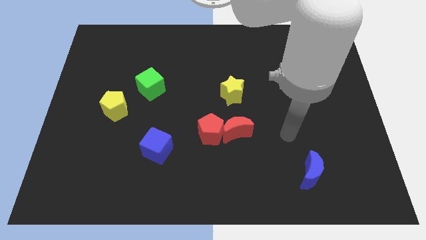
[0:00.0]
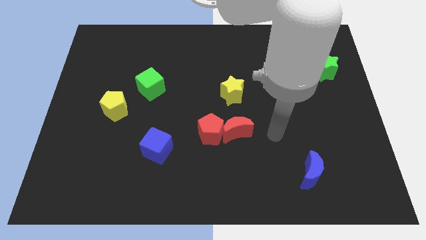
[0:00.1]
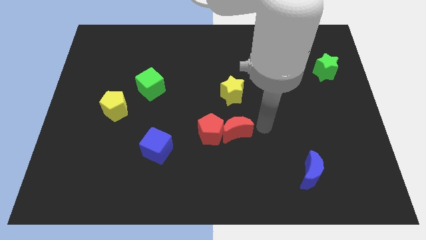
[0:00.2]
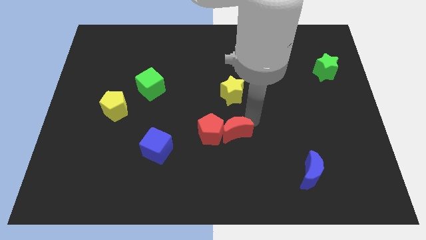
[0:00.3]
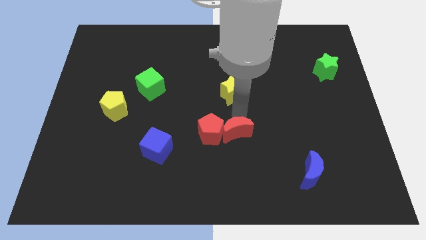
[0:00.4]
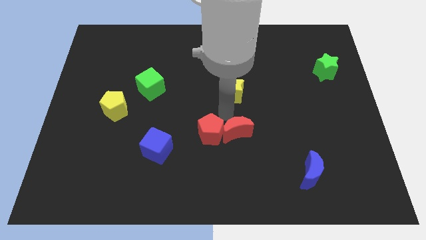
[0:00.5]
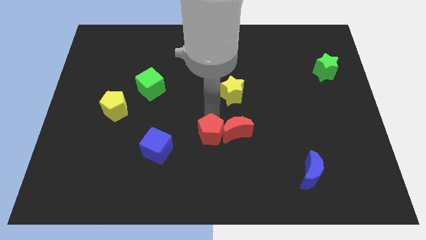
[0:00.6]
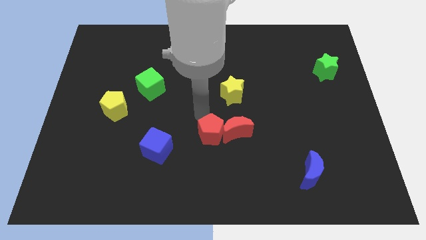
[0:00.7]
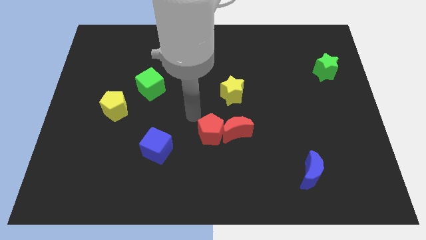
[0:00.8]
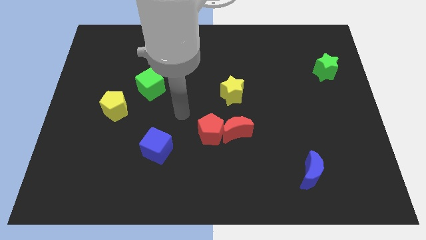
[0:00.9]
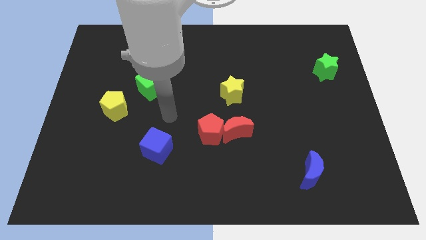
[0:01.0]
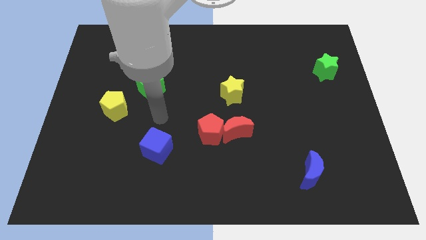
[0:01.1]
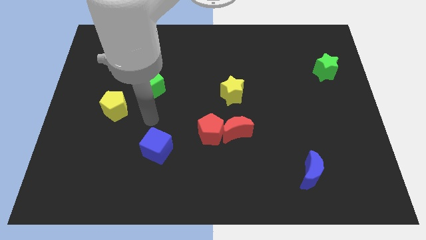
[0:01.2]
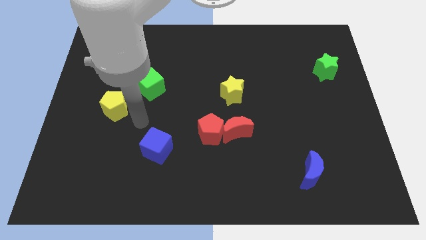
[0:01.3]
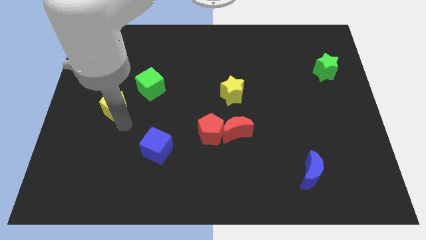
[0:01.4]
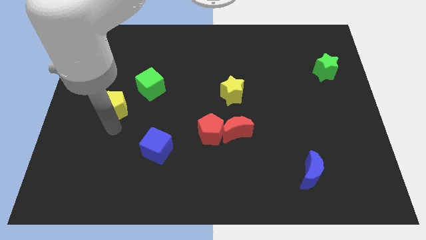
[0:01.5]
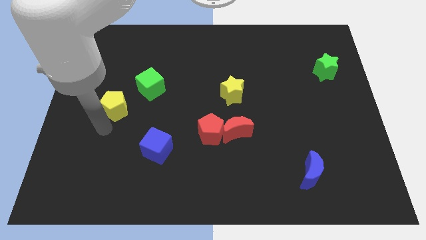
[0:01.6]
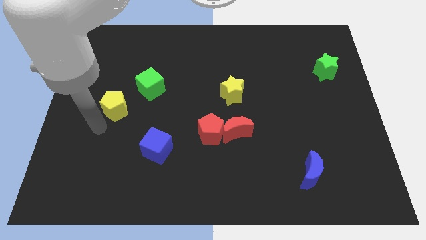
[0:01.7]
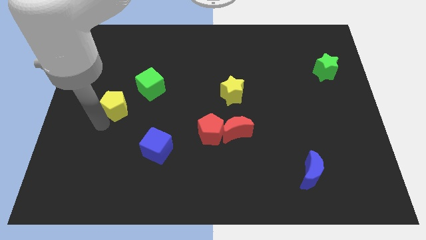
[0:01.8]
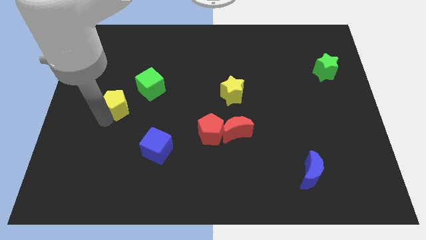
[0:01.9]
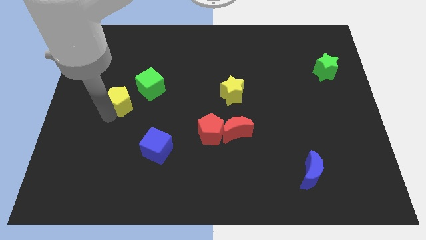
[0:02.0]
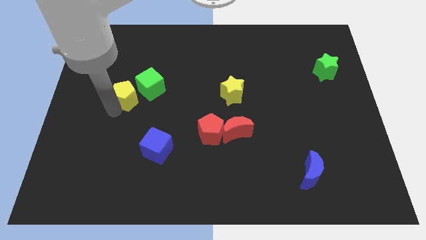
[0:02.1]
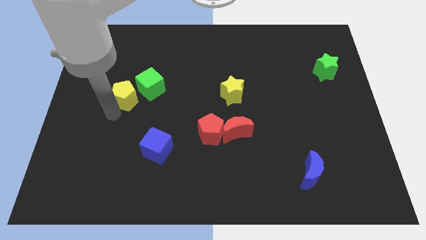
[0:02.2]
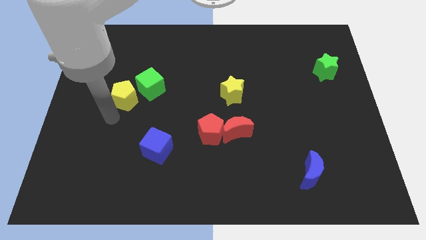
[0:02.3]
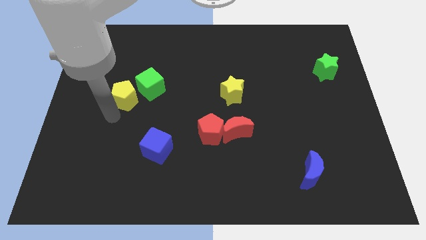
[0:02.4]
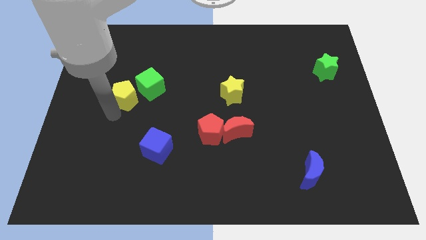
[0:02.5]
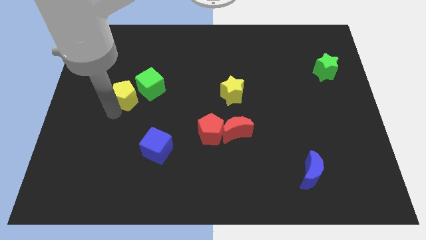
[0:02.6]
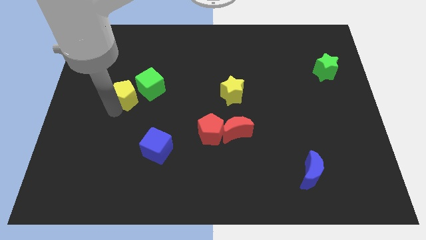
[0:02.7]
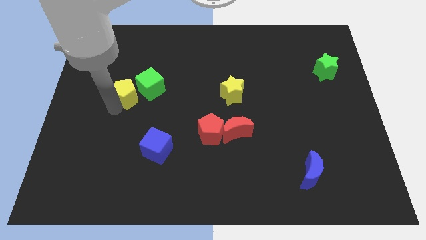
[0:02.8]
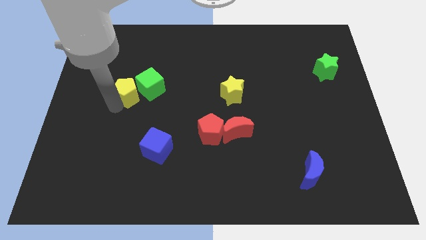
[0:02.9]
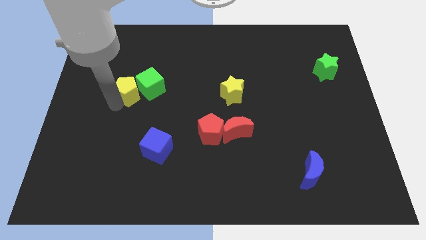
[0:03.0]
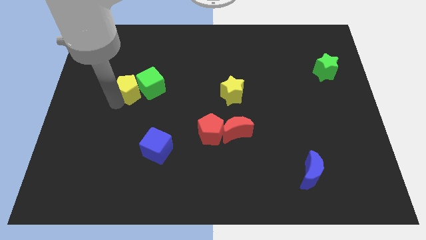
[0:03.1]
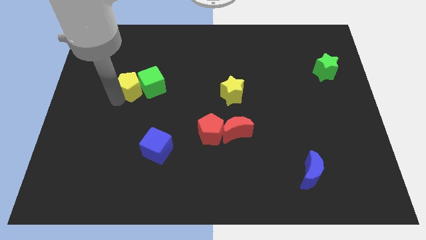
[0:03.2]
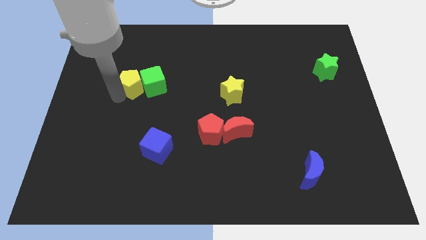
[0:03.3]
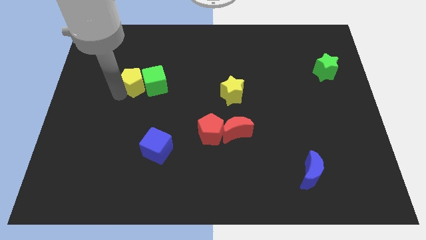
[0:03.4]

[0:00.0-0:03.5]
slightly move the yellow pentagon up and then to the right

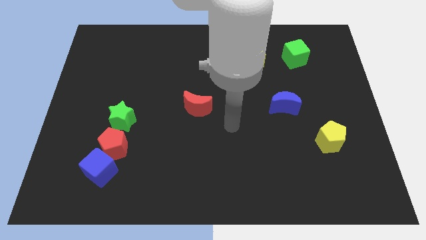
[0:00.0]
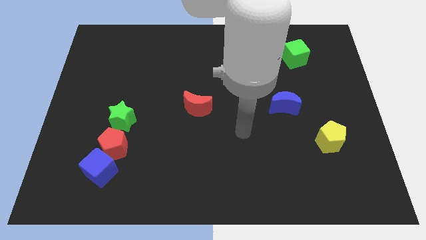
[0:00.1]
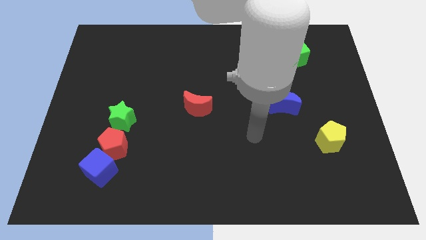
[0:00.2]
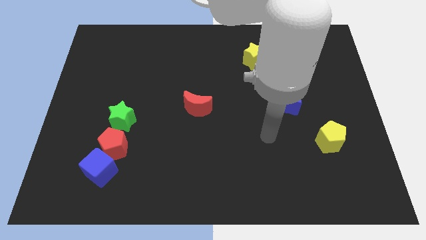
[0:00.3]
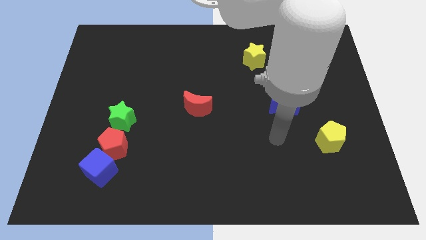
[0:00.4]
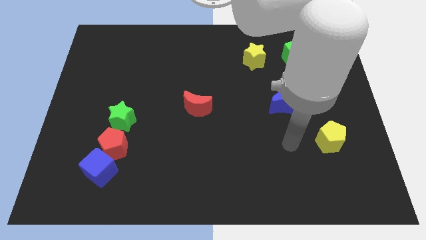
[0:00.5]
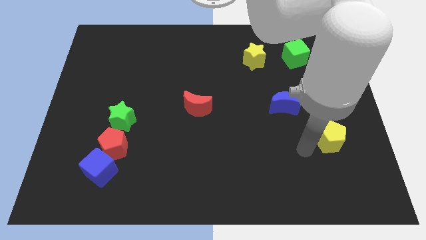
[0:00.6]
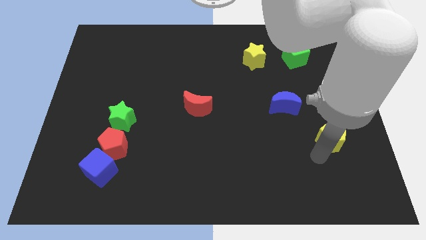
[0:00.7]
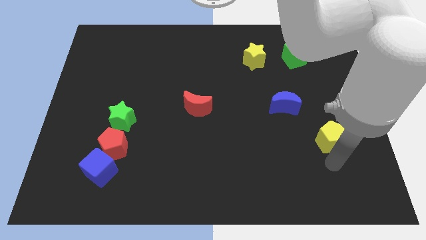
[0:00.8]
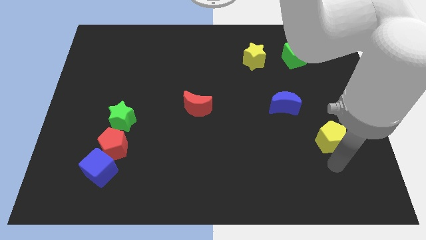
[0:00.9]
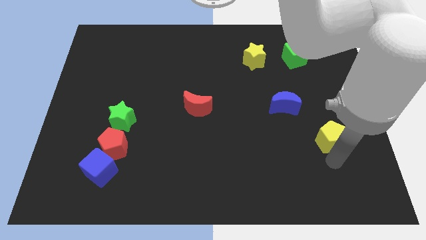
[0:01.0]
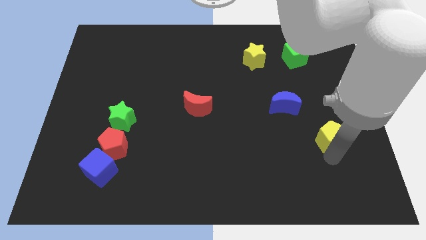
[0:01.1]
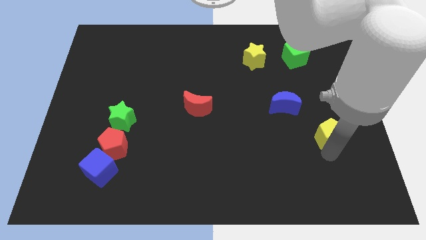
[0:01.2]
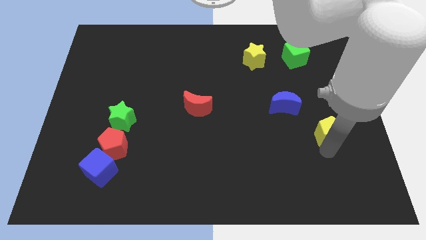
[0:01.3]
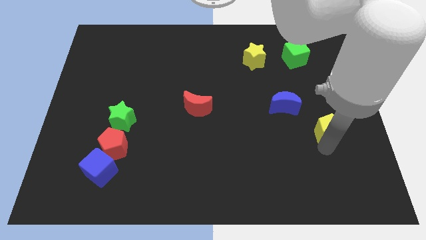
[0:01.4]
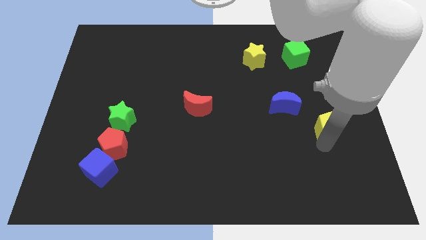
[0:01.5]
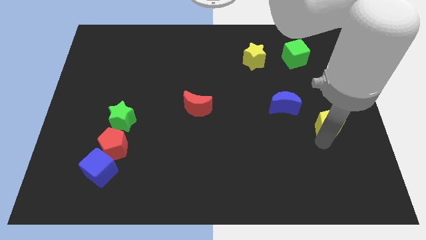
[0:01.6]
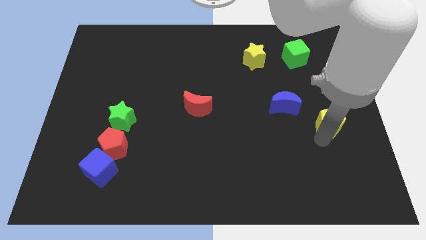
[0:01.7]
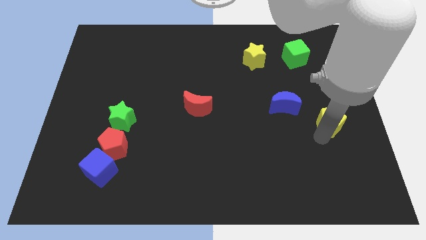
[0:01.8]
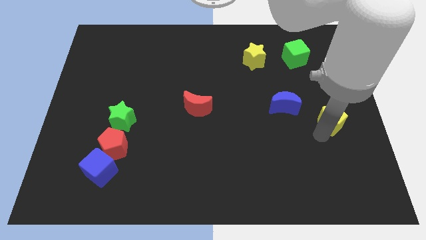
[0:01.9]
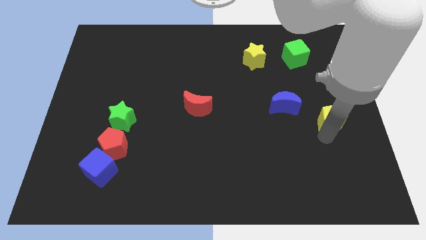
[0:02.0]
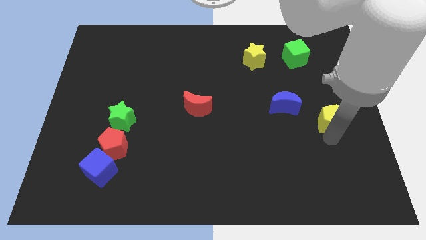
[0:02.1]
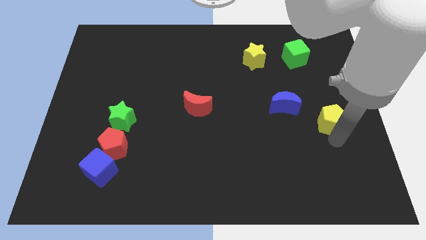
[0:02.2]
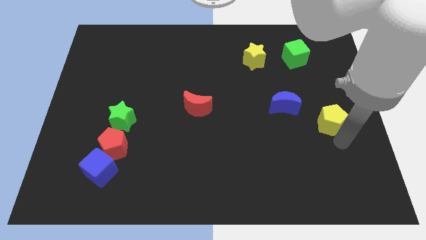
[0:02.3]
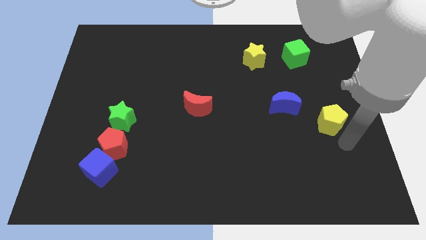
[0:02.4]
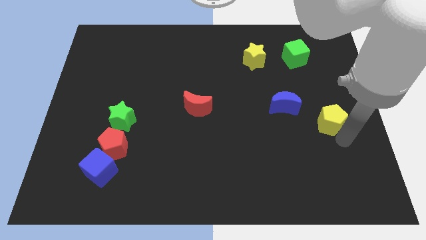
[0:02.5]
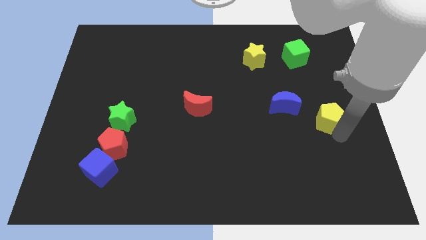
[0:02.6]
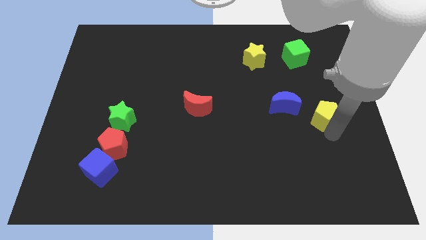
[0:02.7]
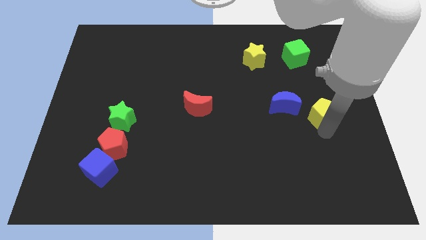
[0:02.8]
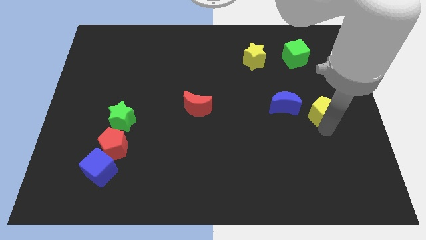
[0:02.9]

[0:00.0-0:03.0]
slide the yellow pentagon slightly up

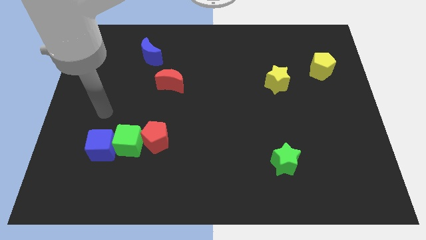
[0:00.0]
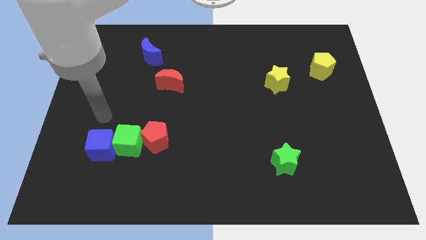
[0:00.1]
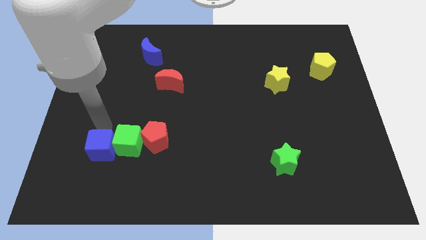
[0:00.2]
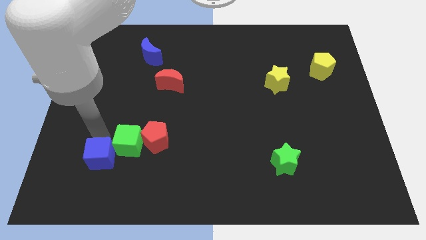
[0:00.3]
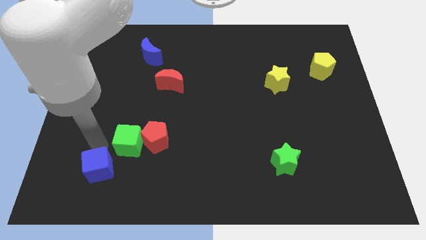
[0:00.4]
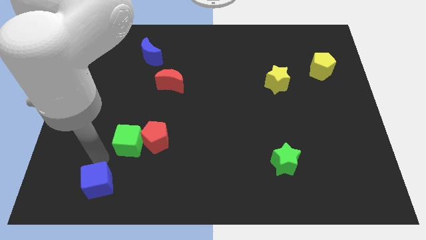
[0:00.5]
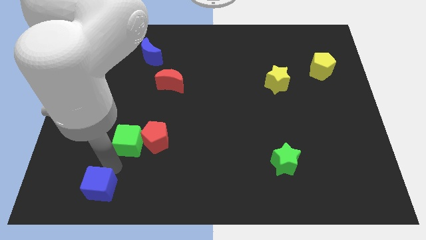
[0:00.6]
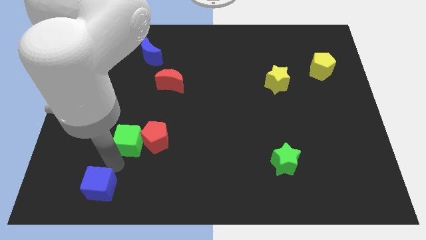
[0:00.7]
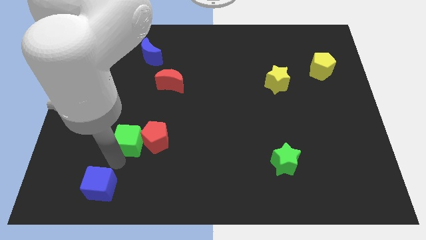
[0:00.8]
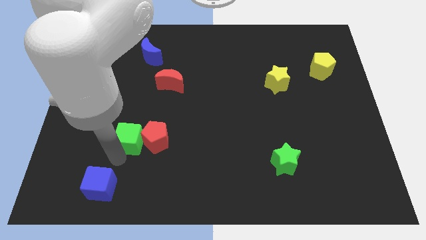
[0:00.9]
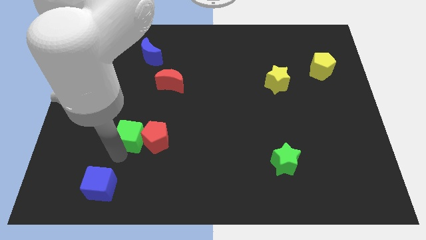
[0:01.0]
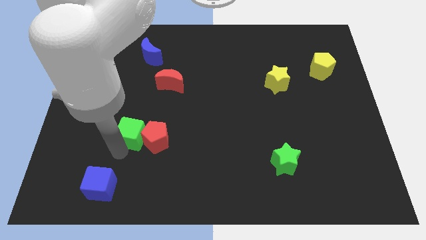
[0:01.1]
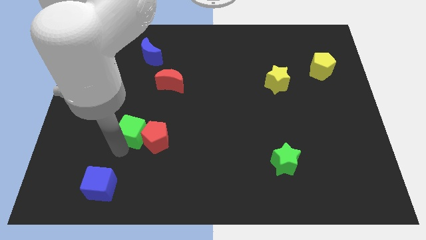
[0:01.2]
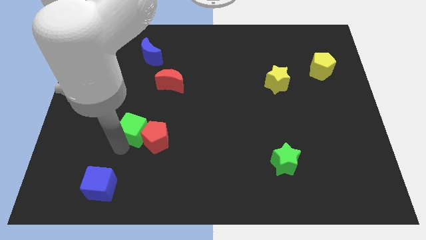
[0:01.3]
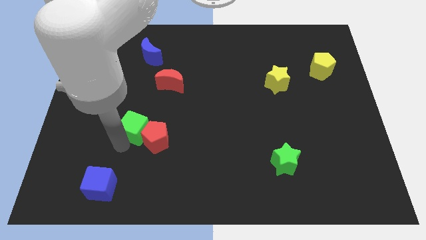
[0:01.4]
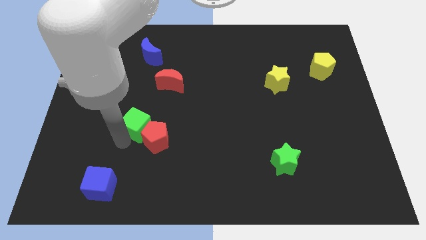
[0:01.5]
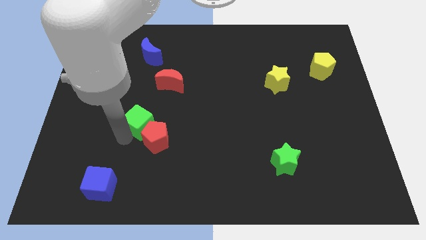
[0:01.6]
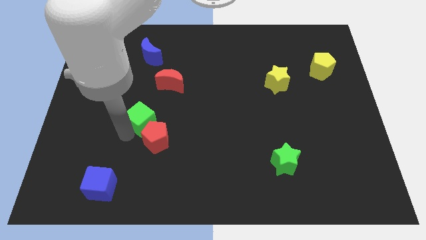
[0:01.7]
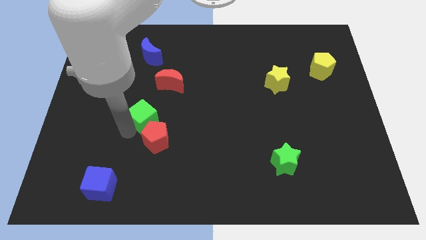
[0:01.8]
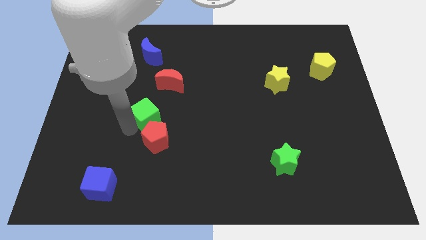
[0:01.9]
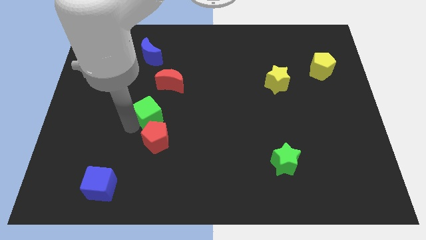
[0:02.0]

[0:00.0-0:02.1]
push the green cube up and then right slightly
